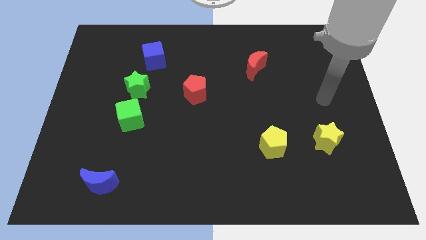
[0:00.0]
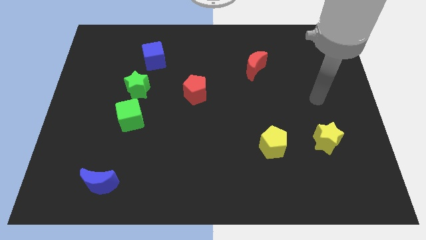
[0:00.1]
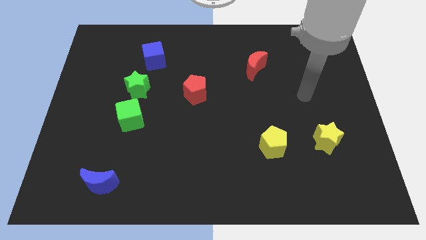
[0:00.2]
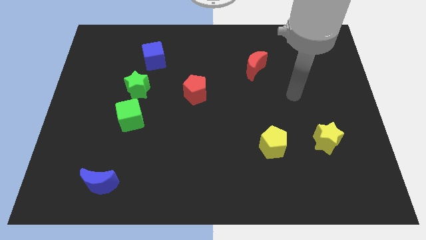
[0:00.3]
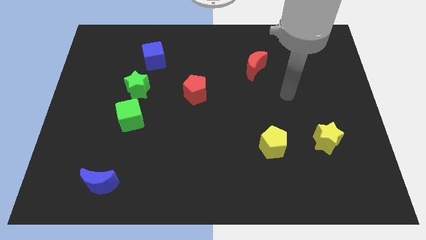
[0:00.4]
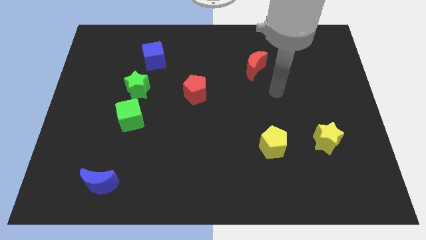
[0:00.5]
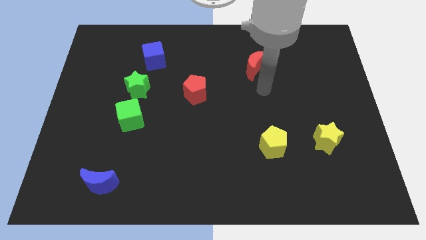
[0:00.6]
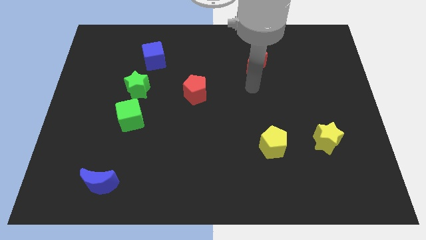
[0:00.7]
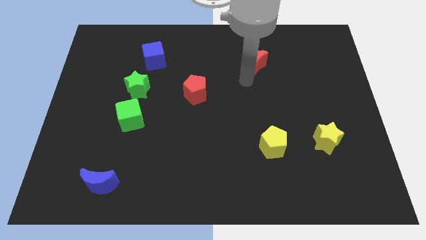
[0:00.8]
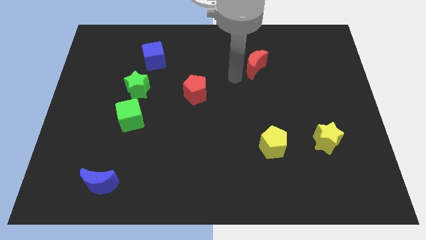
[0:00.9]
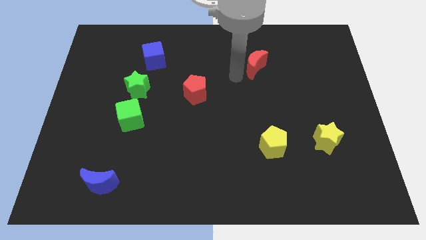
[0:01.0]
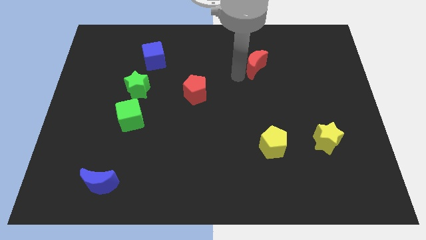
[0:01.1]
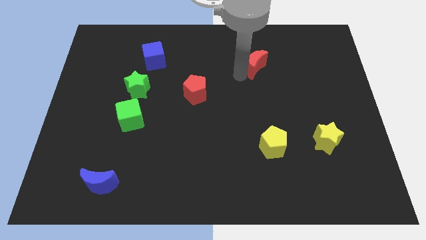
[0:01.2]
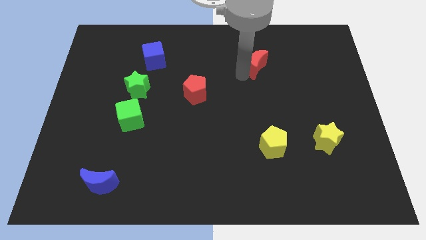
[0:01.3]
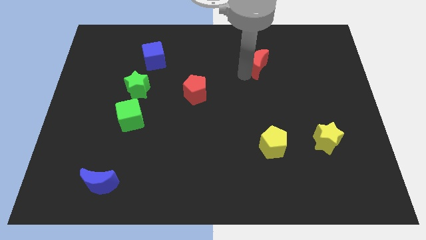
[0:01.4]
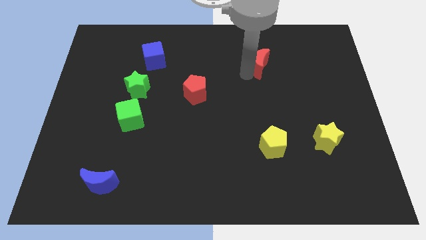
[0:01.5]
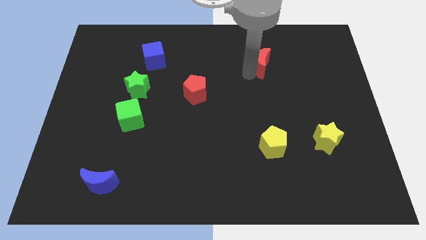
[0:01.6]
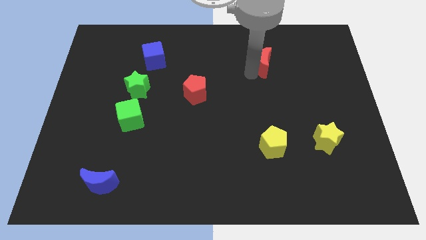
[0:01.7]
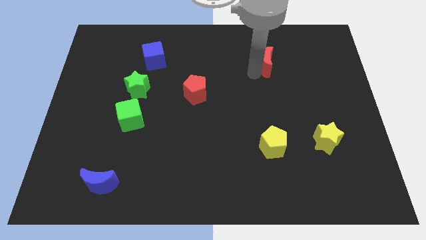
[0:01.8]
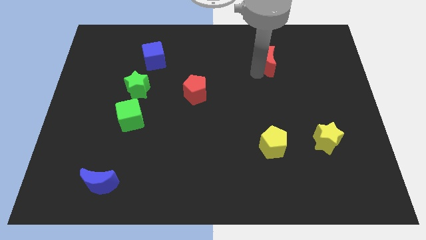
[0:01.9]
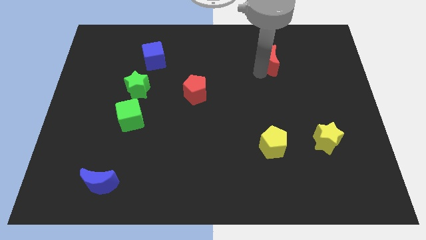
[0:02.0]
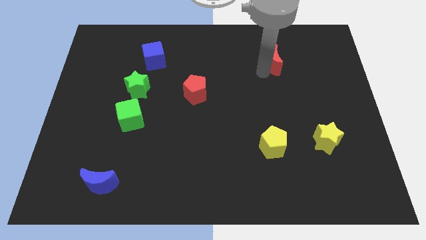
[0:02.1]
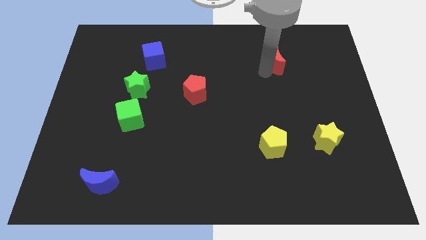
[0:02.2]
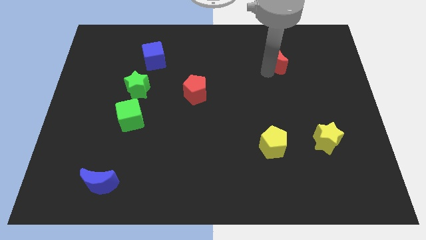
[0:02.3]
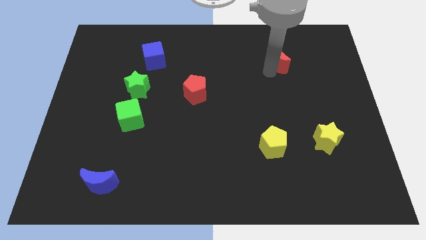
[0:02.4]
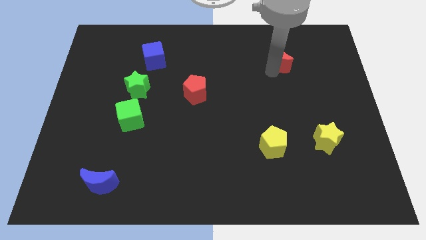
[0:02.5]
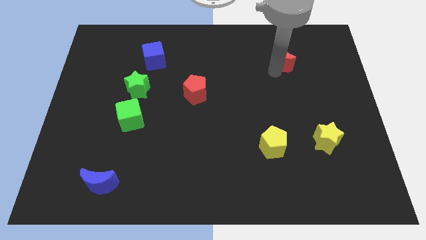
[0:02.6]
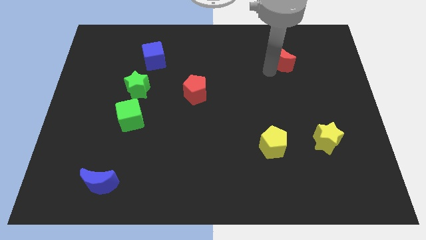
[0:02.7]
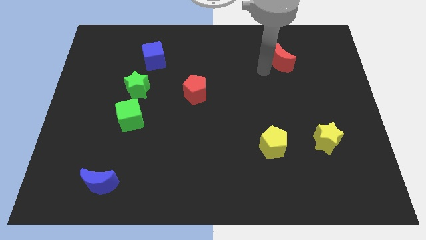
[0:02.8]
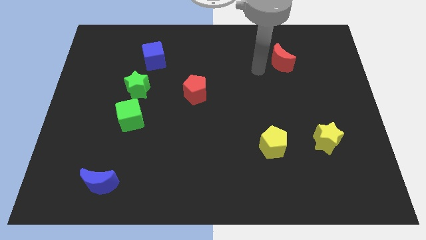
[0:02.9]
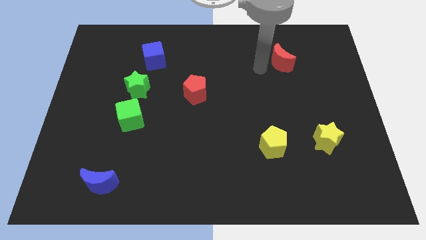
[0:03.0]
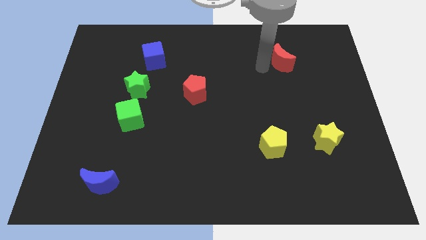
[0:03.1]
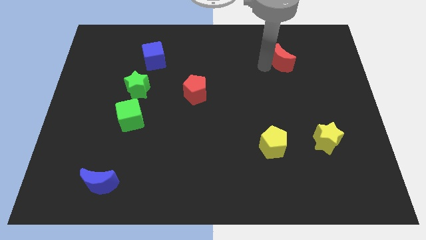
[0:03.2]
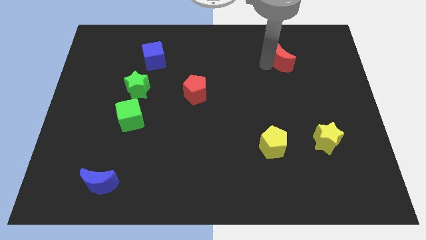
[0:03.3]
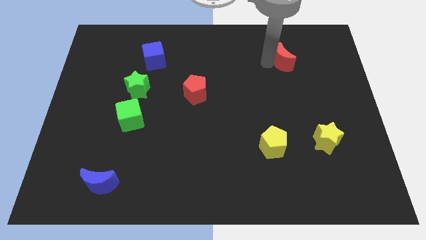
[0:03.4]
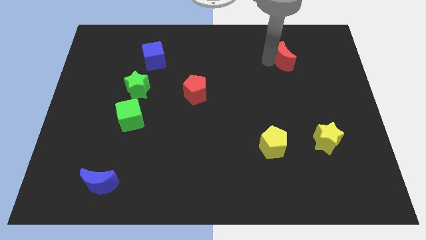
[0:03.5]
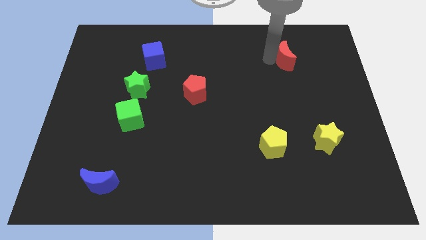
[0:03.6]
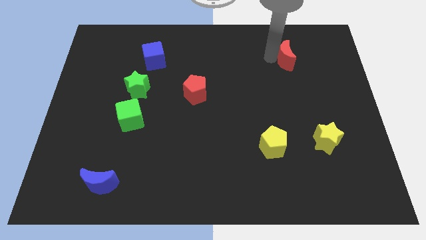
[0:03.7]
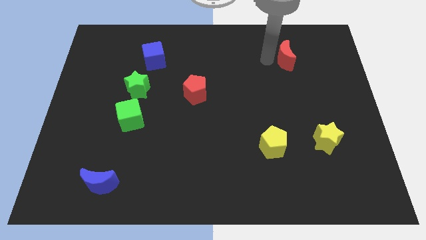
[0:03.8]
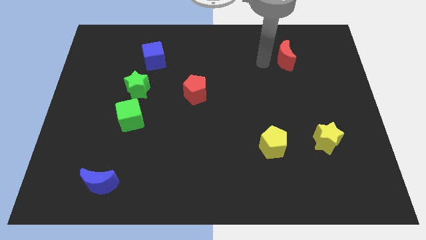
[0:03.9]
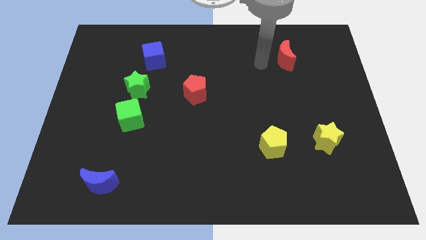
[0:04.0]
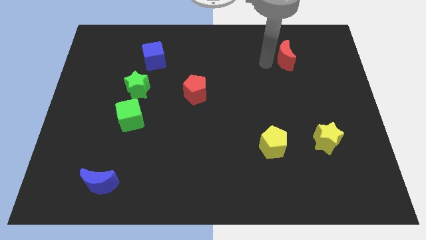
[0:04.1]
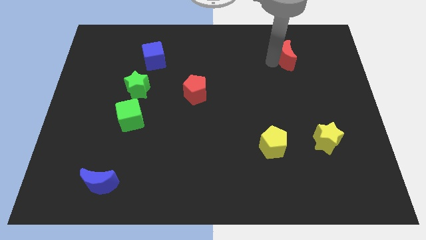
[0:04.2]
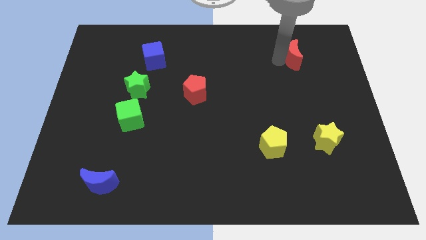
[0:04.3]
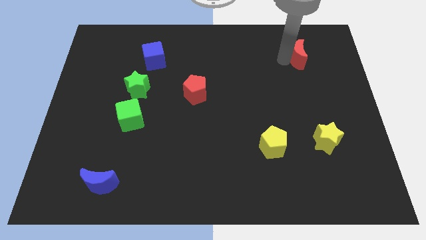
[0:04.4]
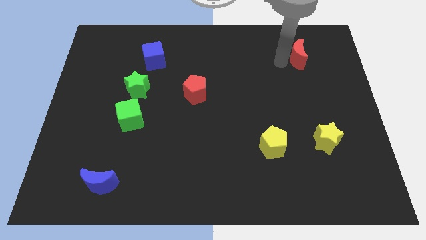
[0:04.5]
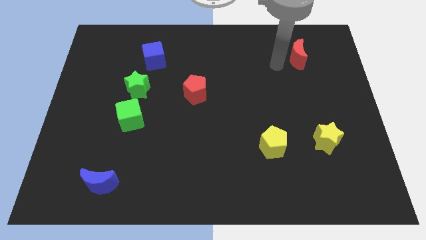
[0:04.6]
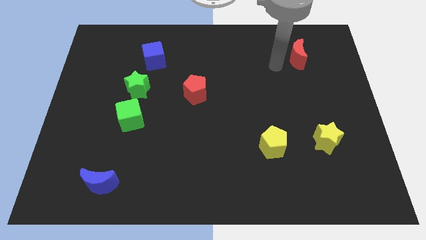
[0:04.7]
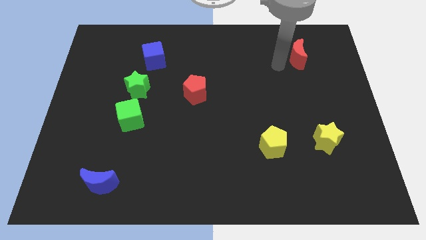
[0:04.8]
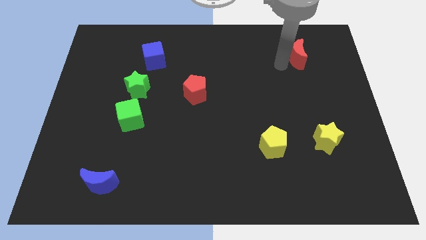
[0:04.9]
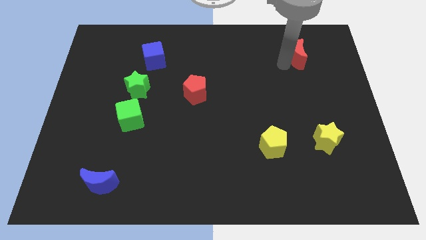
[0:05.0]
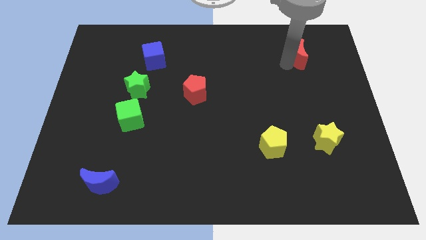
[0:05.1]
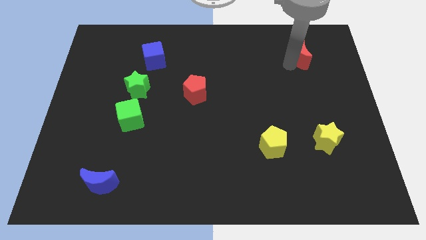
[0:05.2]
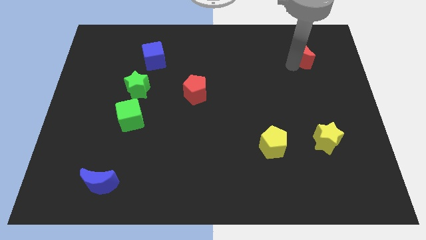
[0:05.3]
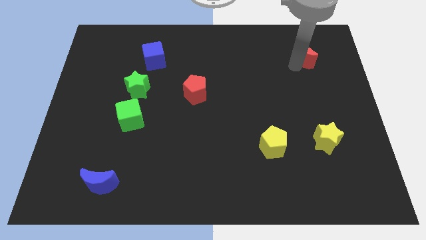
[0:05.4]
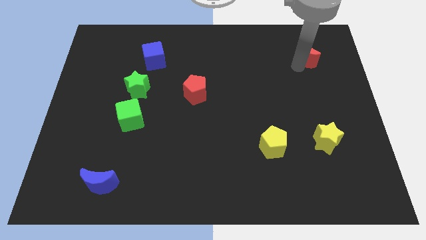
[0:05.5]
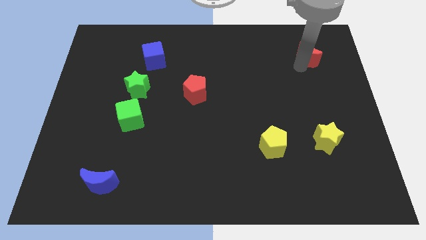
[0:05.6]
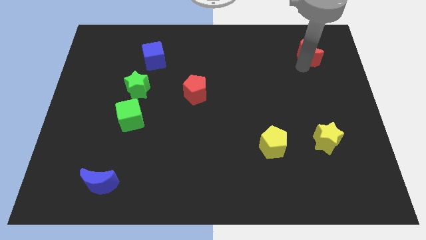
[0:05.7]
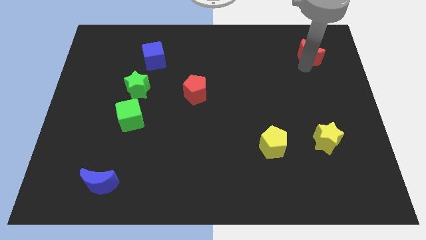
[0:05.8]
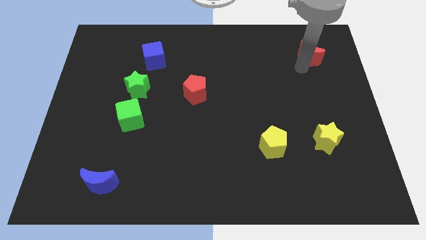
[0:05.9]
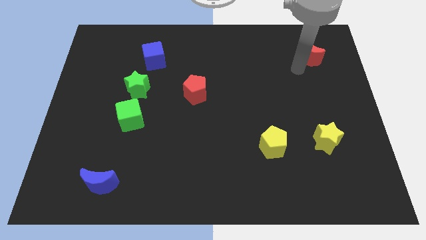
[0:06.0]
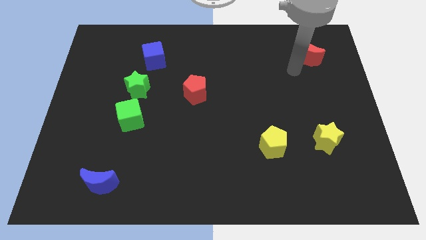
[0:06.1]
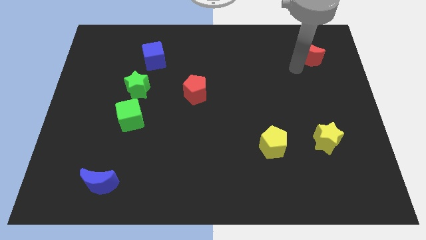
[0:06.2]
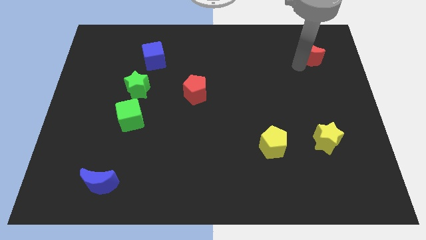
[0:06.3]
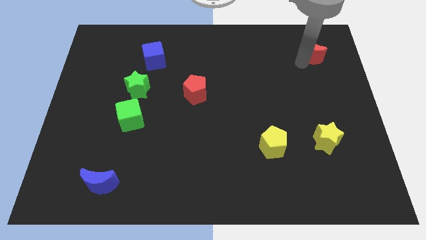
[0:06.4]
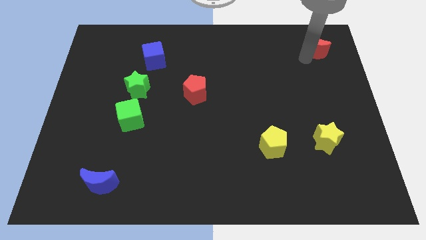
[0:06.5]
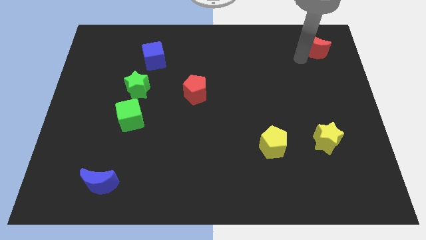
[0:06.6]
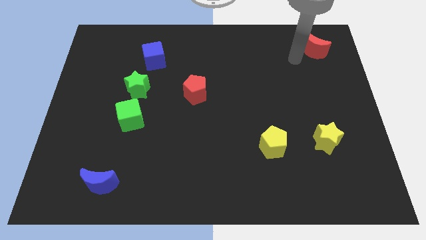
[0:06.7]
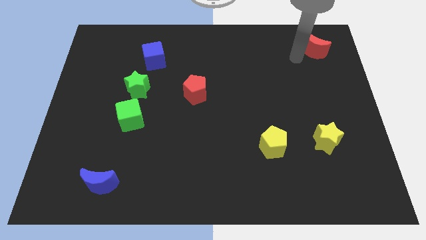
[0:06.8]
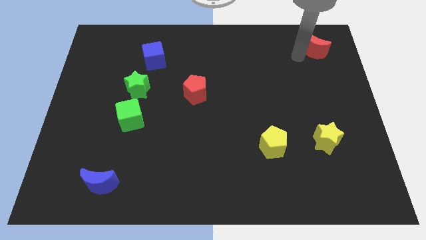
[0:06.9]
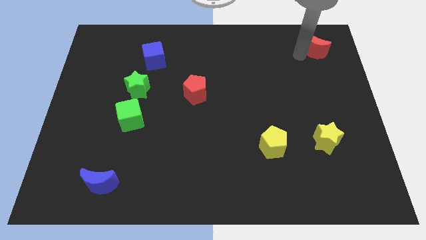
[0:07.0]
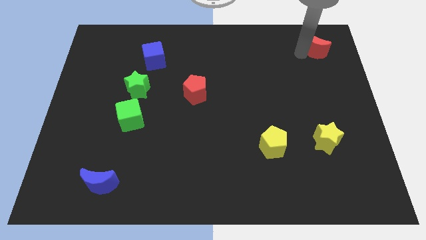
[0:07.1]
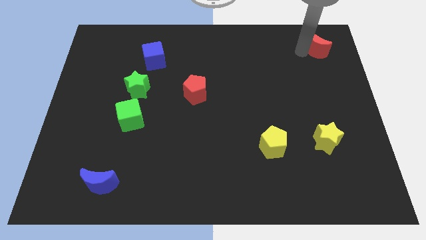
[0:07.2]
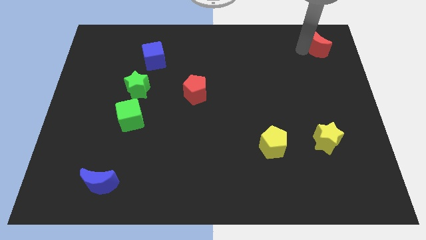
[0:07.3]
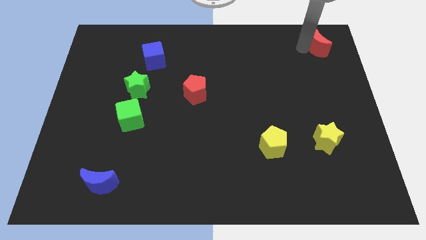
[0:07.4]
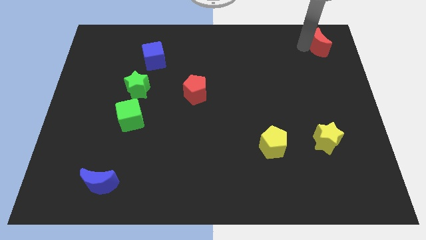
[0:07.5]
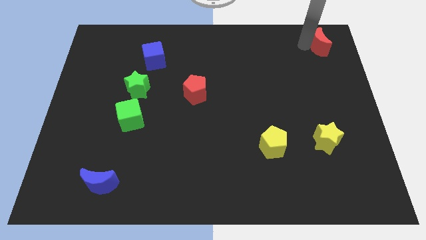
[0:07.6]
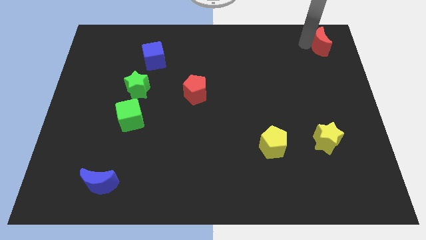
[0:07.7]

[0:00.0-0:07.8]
slide the red moon to the top right
